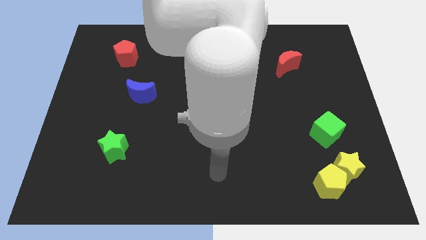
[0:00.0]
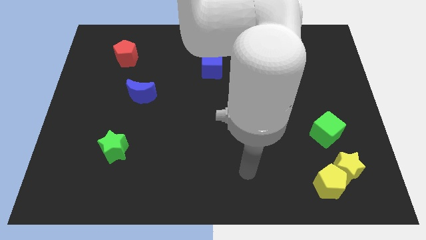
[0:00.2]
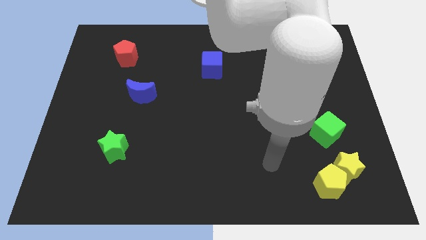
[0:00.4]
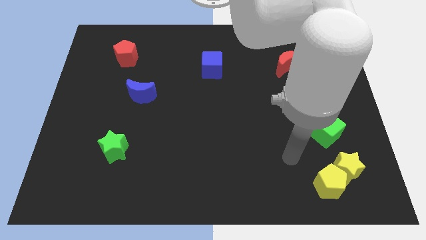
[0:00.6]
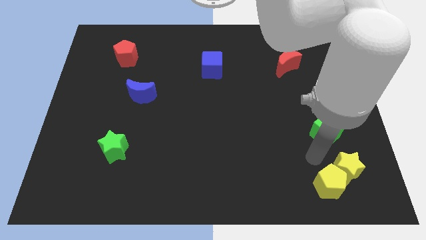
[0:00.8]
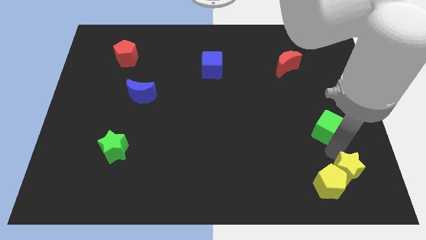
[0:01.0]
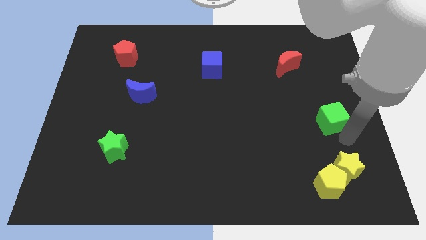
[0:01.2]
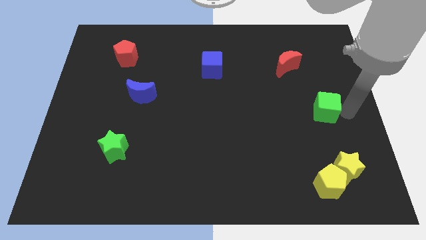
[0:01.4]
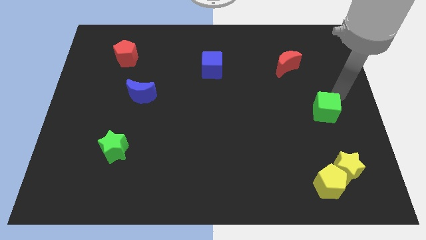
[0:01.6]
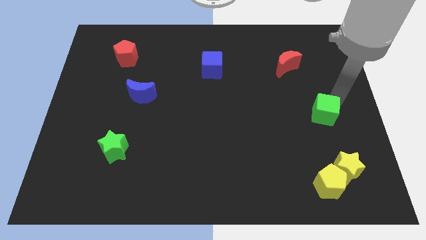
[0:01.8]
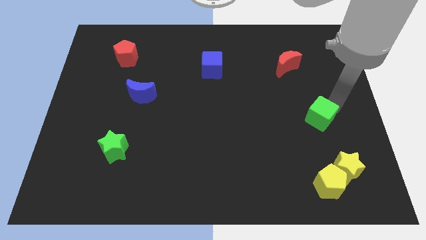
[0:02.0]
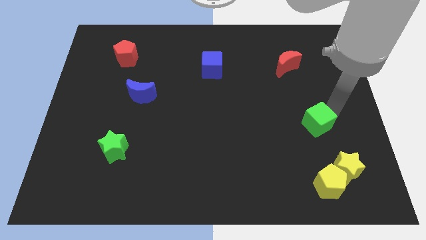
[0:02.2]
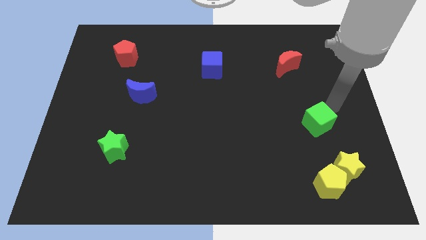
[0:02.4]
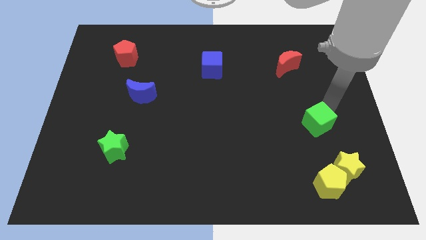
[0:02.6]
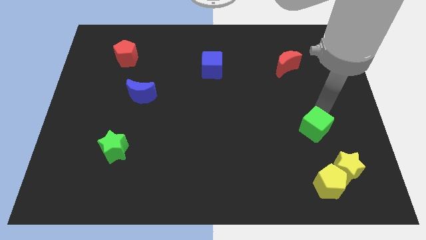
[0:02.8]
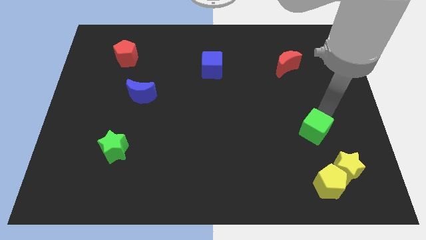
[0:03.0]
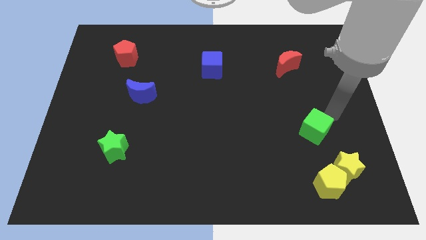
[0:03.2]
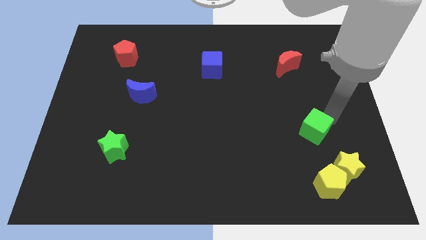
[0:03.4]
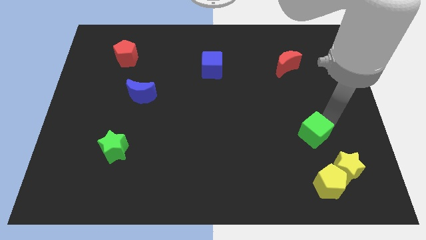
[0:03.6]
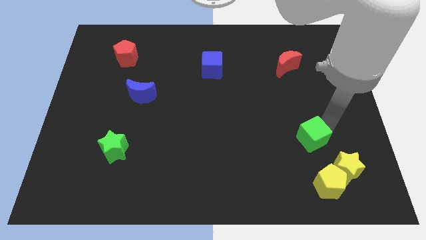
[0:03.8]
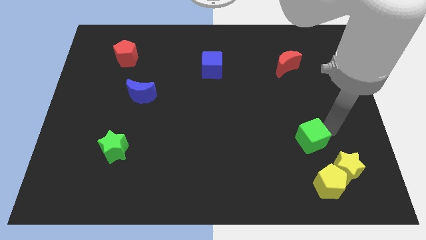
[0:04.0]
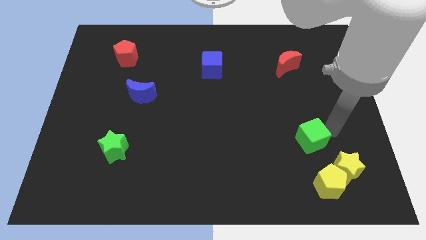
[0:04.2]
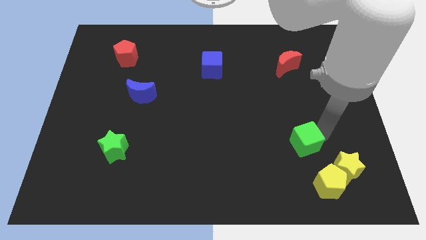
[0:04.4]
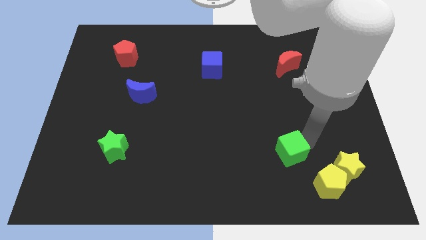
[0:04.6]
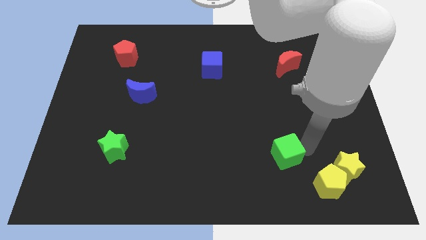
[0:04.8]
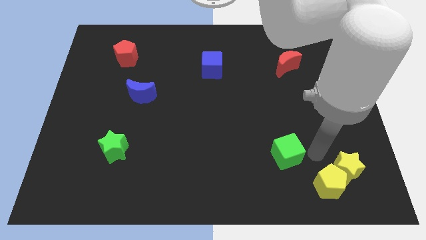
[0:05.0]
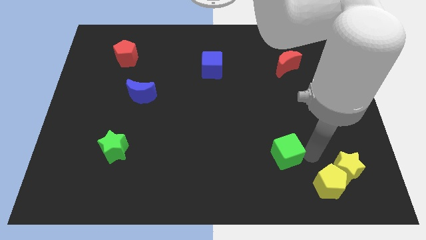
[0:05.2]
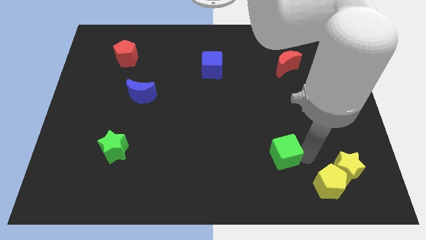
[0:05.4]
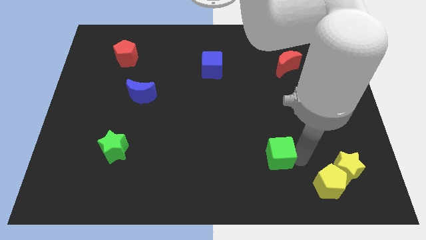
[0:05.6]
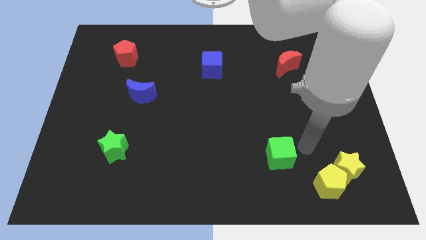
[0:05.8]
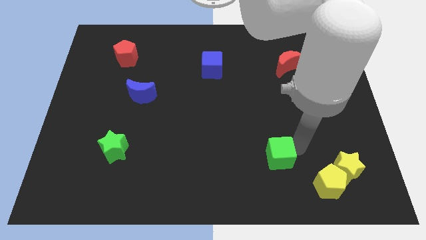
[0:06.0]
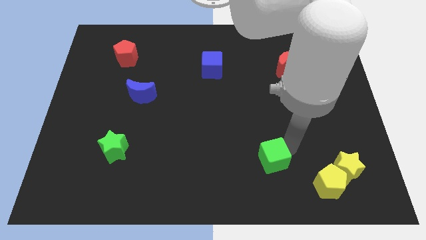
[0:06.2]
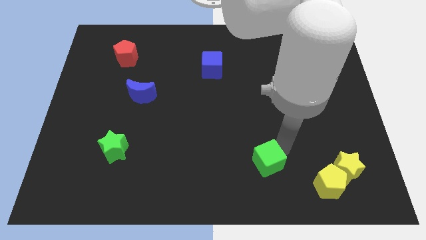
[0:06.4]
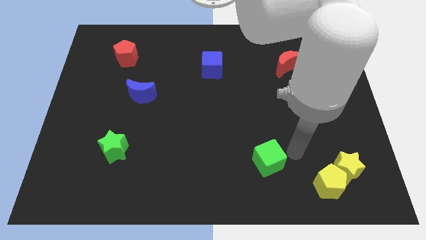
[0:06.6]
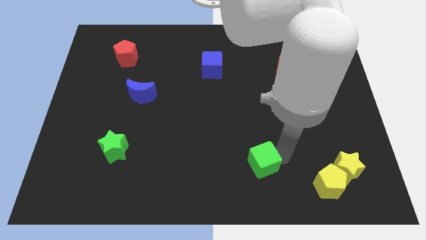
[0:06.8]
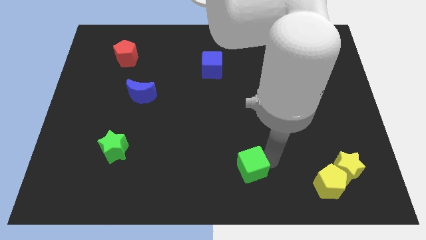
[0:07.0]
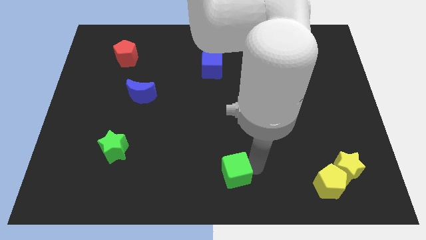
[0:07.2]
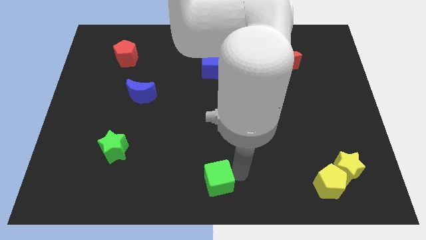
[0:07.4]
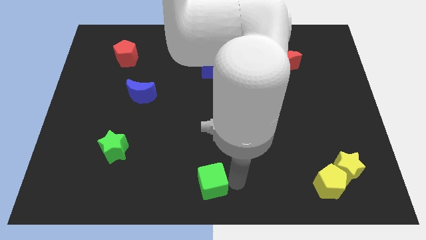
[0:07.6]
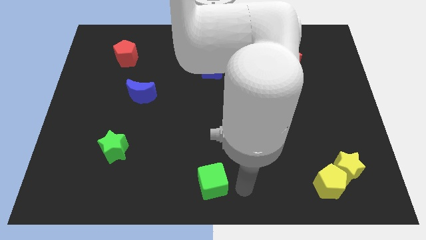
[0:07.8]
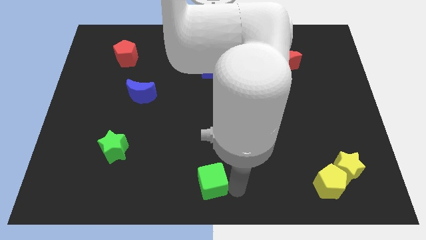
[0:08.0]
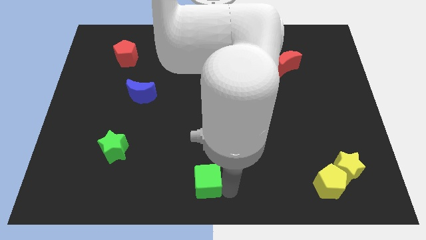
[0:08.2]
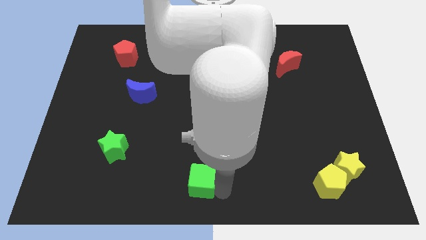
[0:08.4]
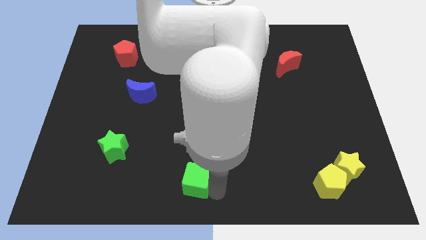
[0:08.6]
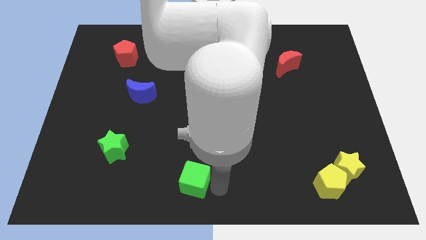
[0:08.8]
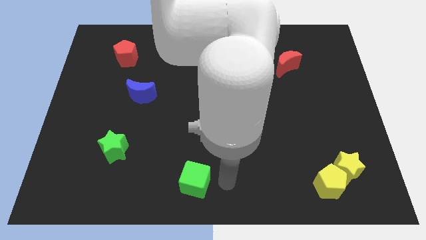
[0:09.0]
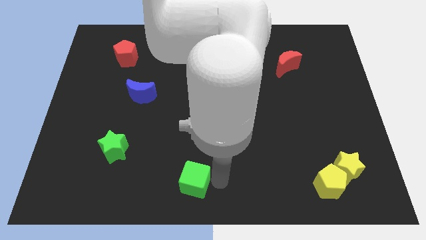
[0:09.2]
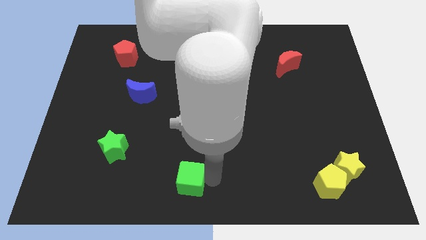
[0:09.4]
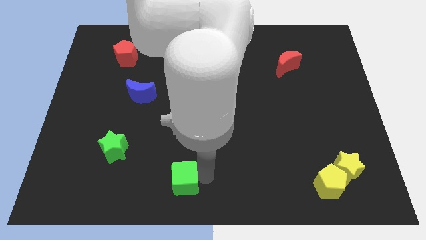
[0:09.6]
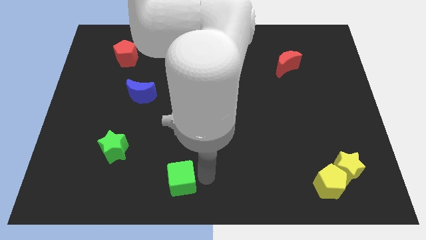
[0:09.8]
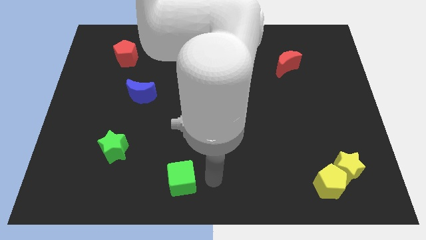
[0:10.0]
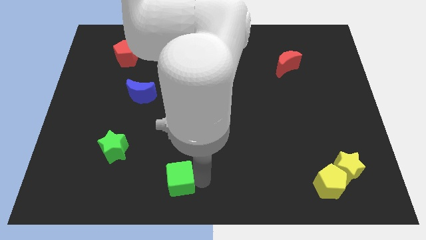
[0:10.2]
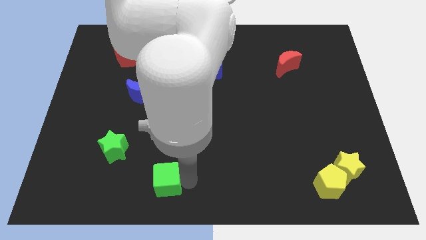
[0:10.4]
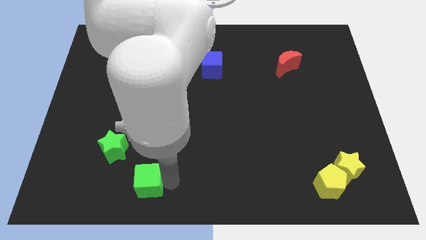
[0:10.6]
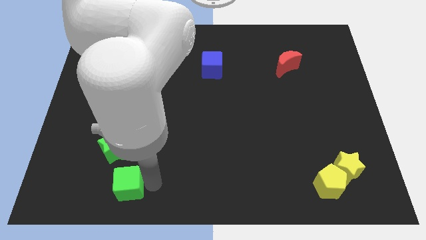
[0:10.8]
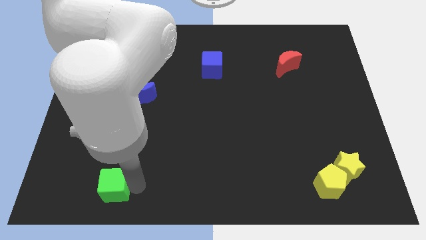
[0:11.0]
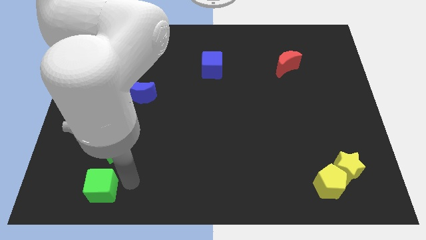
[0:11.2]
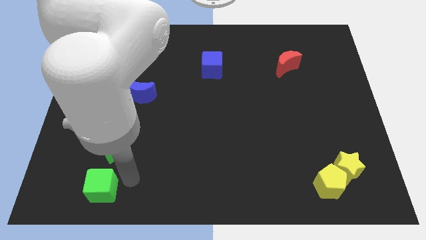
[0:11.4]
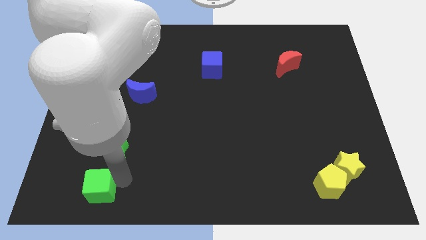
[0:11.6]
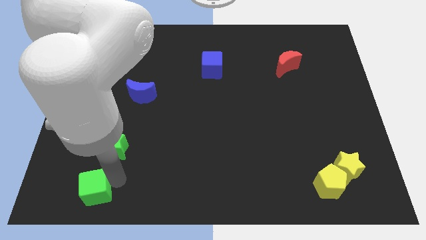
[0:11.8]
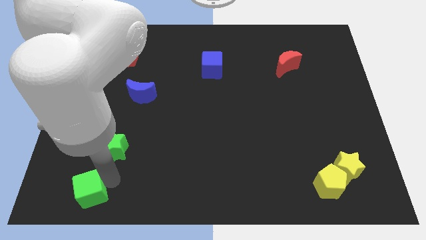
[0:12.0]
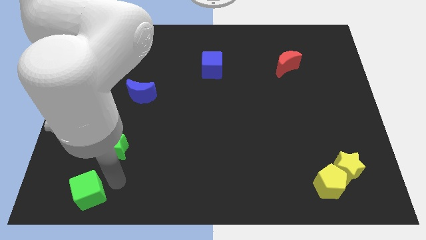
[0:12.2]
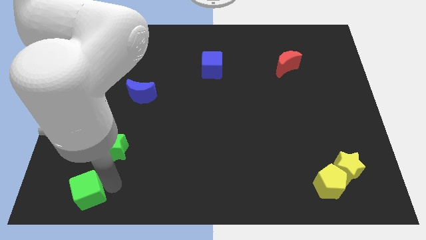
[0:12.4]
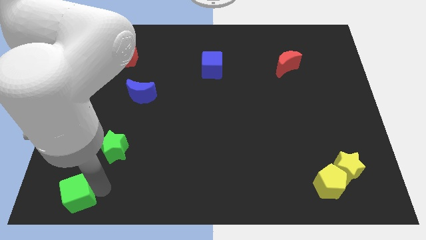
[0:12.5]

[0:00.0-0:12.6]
move the green cube to the lower left corner
